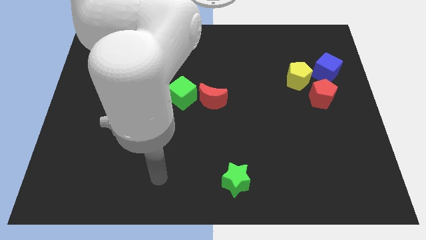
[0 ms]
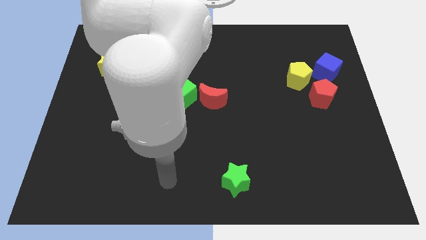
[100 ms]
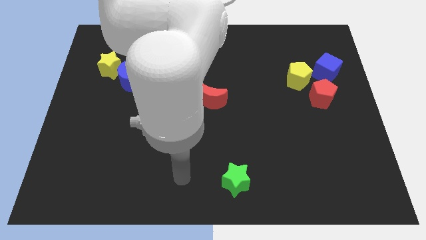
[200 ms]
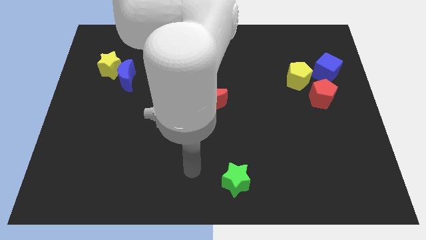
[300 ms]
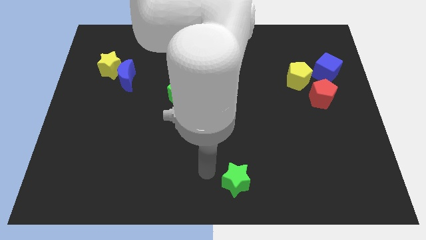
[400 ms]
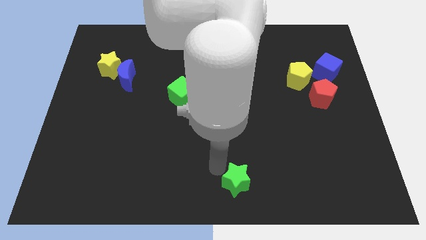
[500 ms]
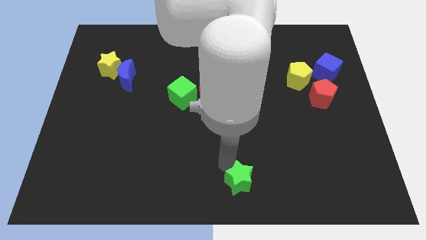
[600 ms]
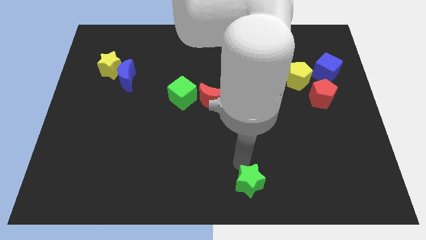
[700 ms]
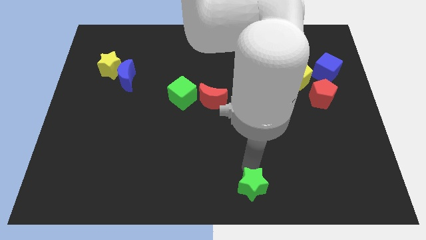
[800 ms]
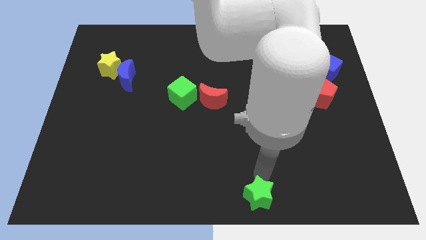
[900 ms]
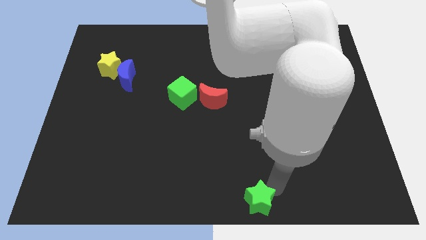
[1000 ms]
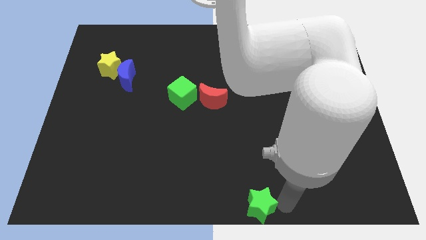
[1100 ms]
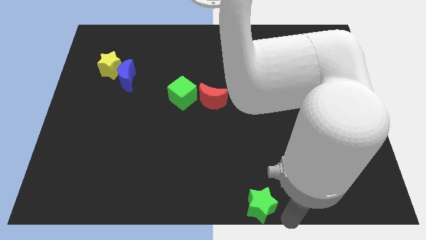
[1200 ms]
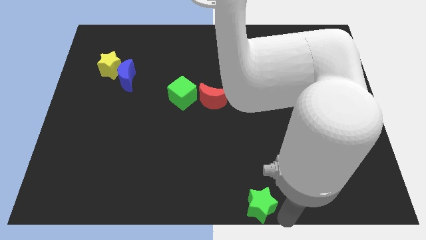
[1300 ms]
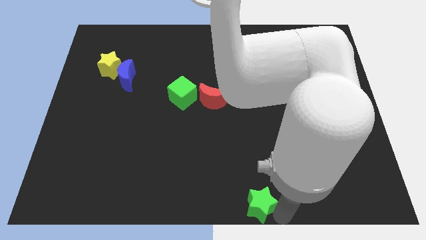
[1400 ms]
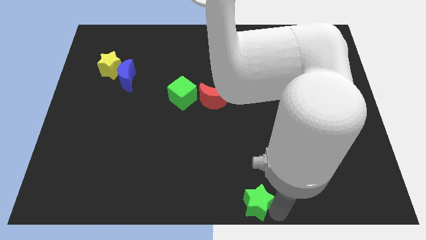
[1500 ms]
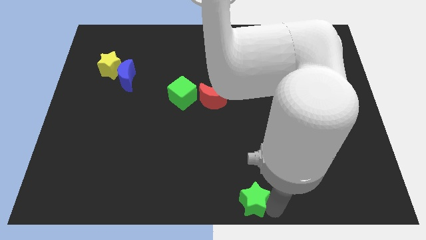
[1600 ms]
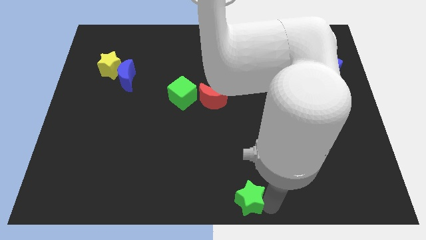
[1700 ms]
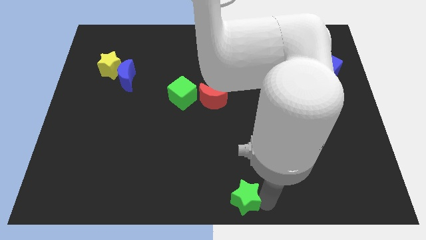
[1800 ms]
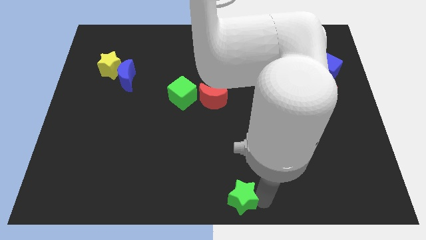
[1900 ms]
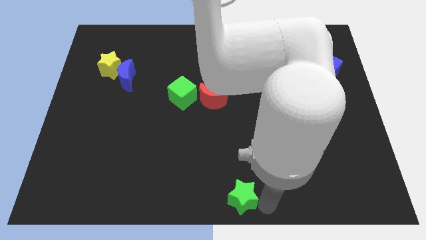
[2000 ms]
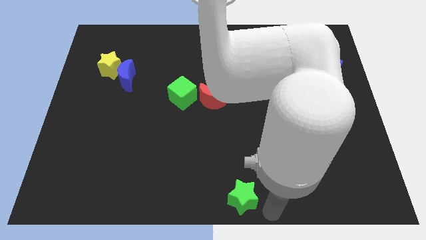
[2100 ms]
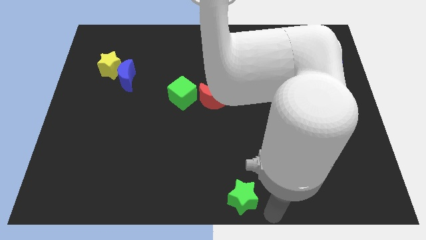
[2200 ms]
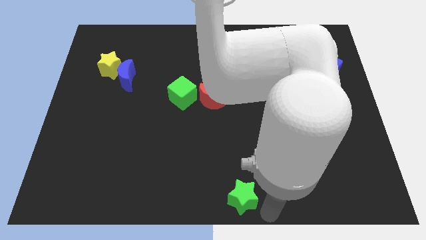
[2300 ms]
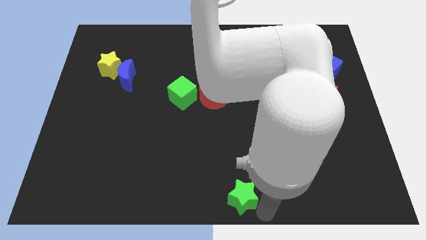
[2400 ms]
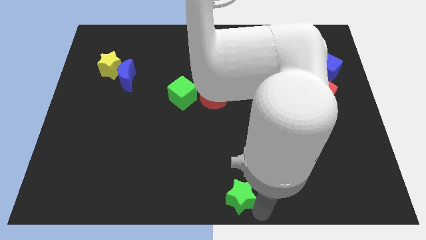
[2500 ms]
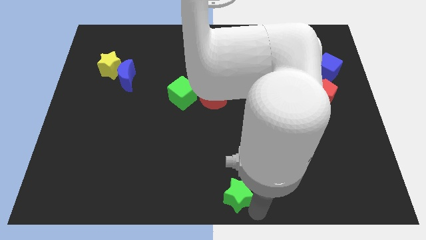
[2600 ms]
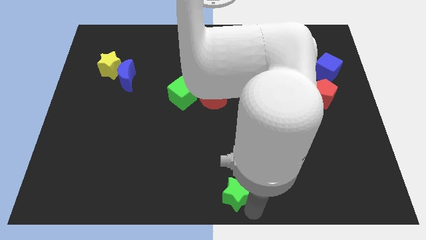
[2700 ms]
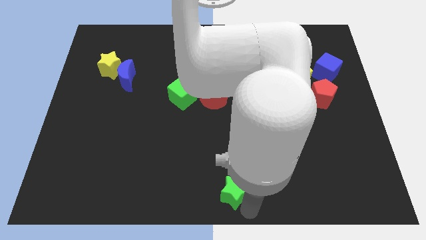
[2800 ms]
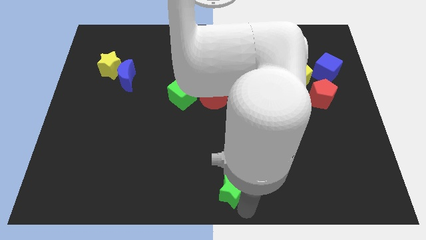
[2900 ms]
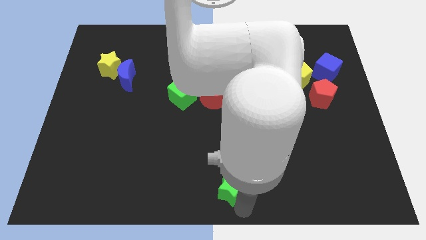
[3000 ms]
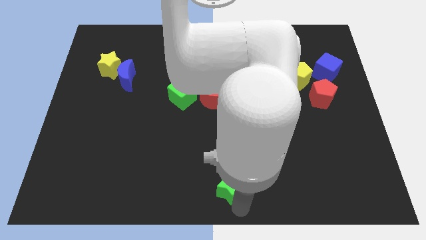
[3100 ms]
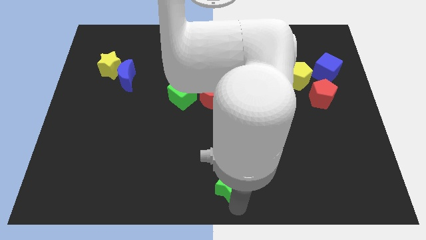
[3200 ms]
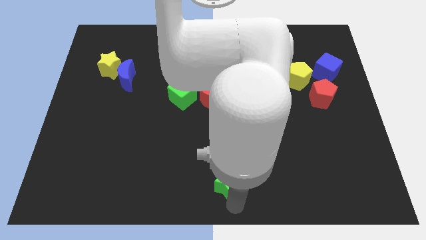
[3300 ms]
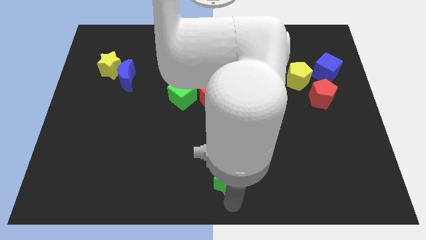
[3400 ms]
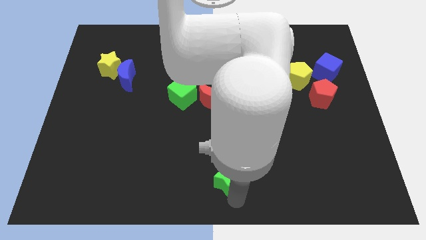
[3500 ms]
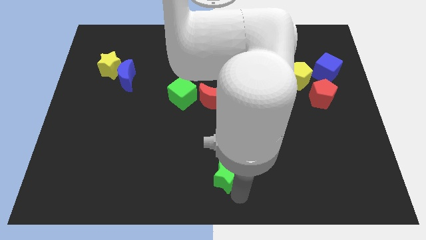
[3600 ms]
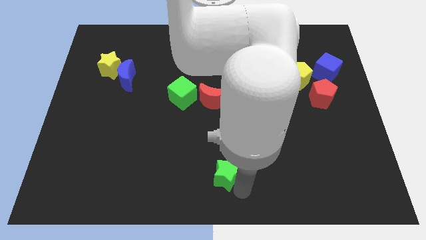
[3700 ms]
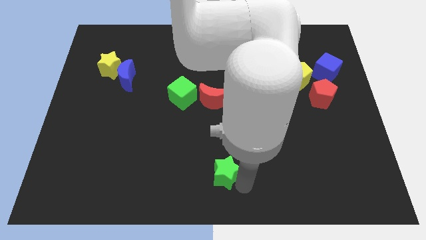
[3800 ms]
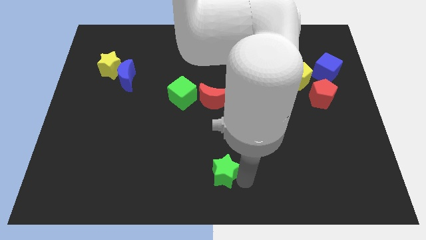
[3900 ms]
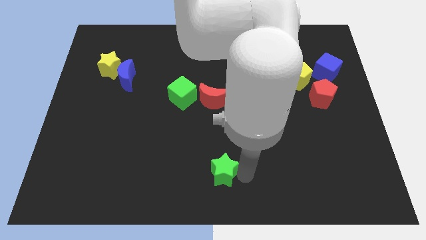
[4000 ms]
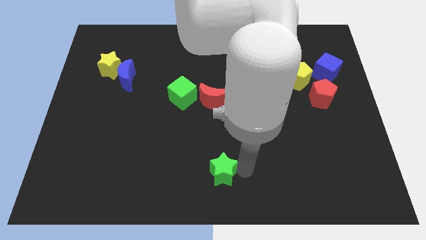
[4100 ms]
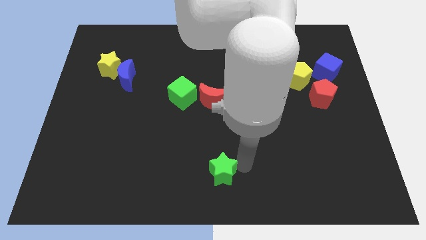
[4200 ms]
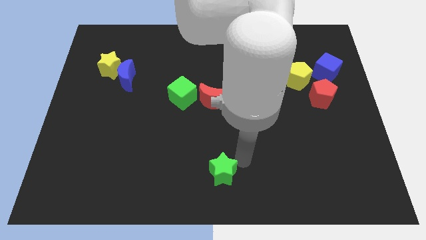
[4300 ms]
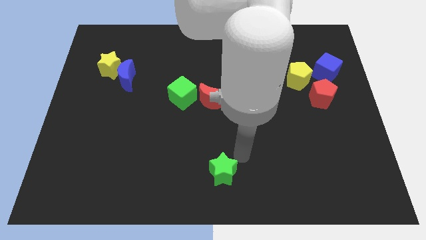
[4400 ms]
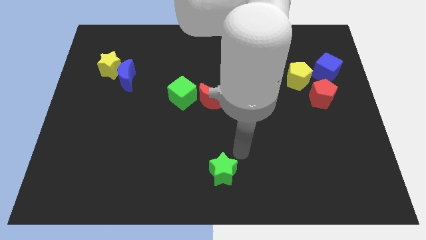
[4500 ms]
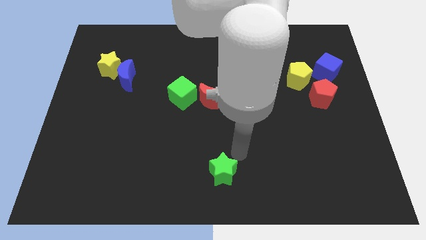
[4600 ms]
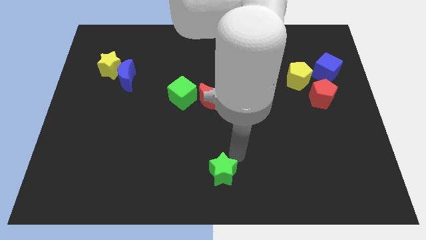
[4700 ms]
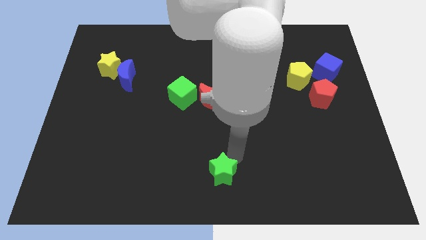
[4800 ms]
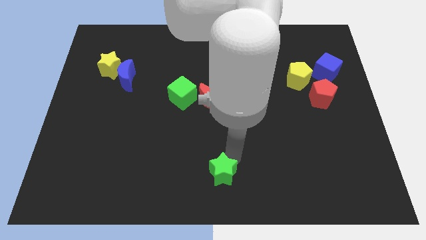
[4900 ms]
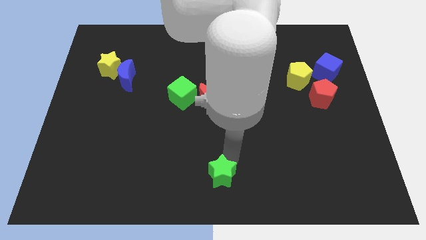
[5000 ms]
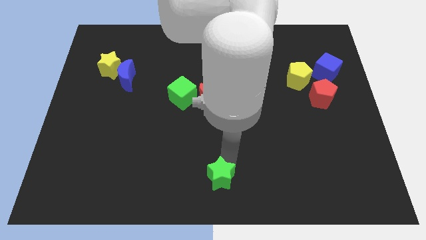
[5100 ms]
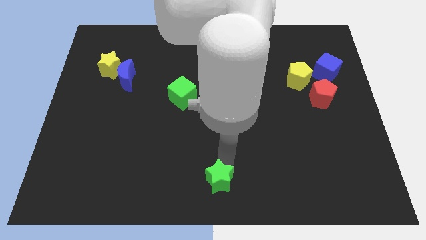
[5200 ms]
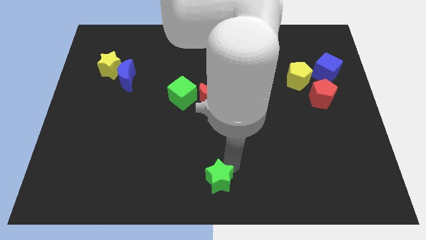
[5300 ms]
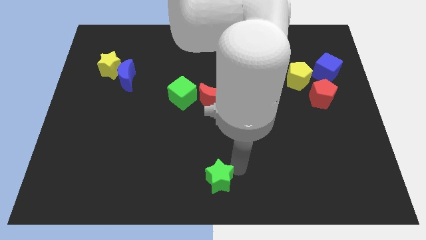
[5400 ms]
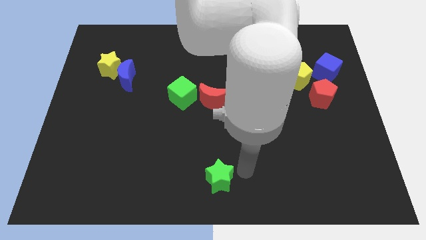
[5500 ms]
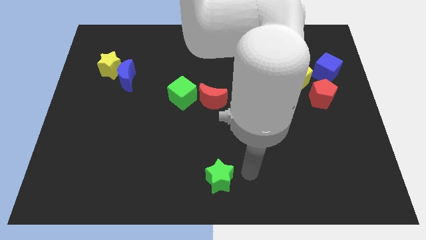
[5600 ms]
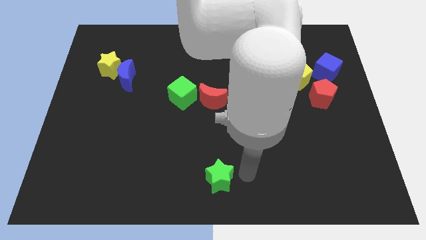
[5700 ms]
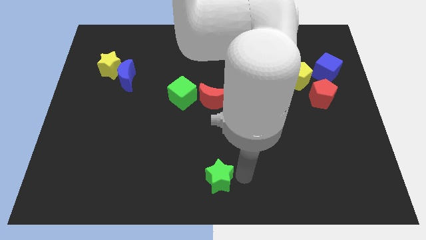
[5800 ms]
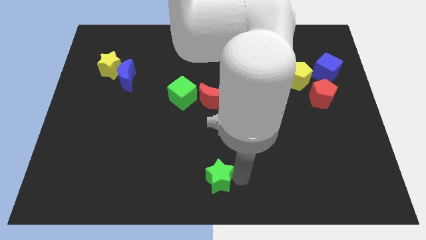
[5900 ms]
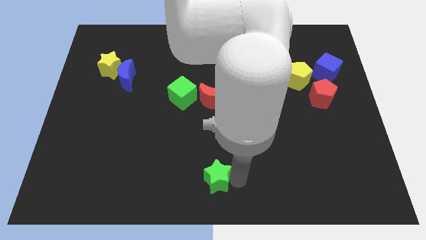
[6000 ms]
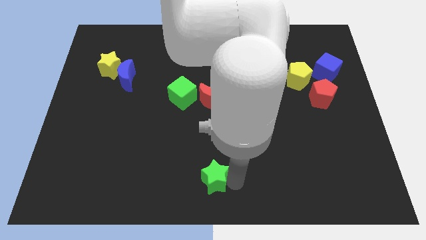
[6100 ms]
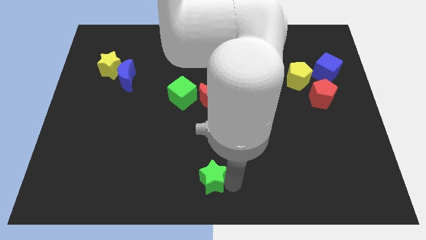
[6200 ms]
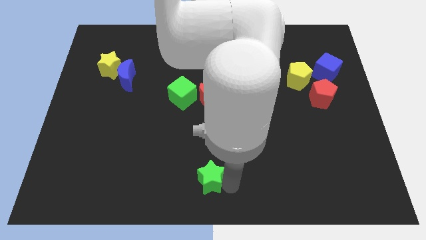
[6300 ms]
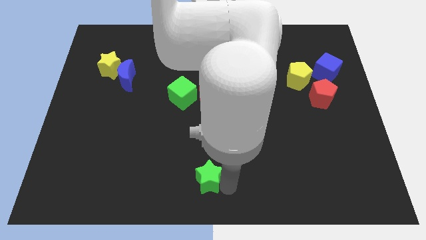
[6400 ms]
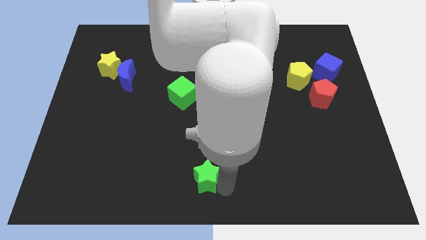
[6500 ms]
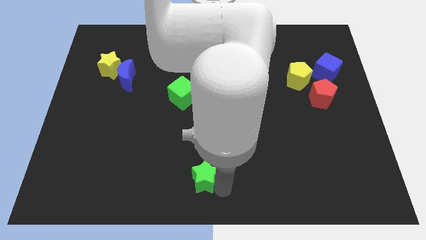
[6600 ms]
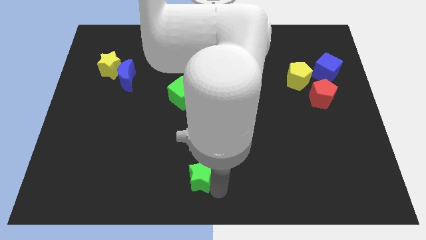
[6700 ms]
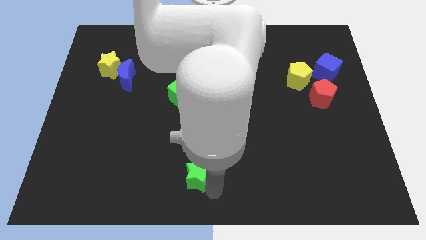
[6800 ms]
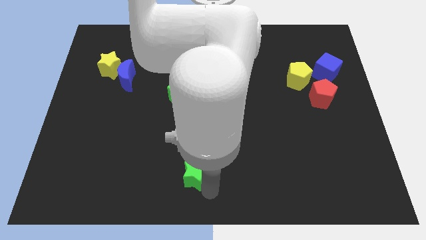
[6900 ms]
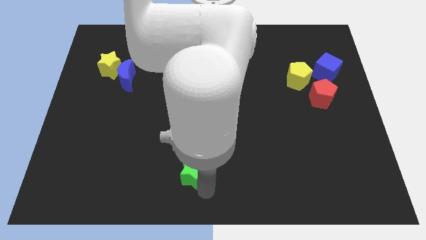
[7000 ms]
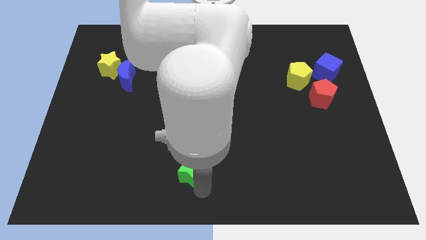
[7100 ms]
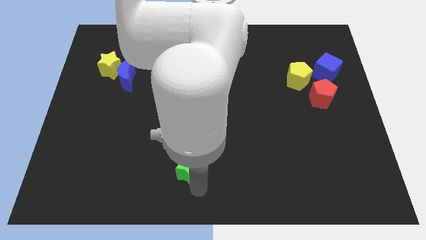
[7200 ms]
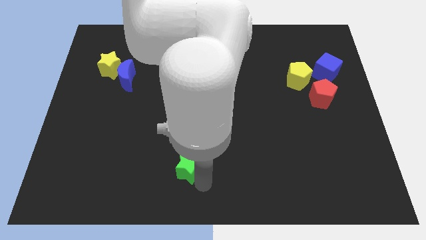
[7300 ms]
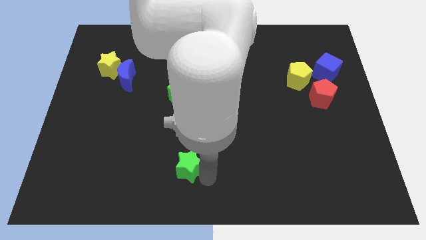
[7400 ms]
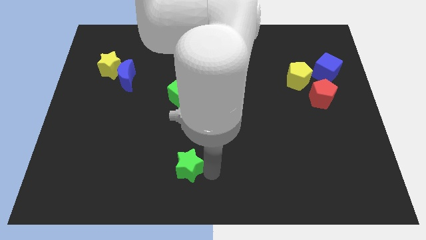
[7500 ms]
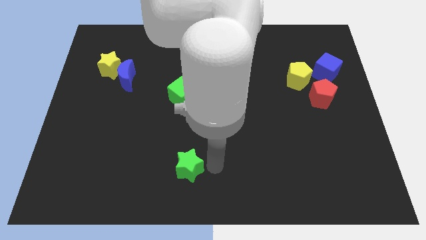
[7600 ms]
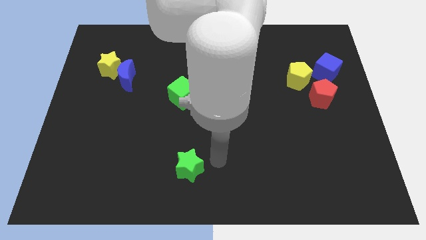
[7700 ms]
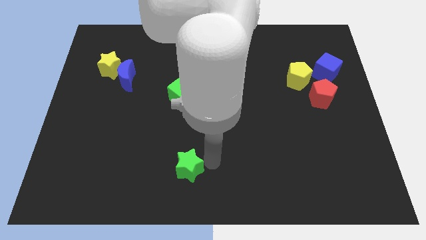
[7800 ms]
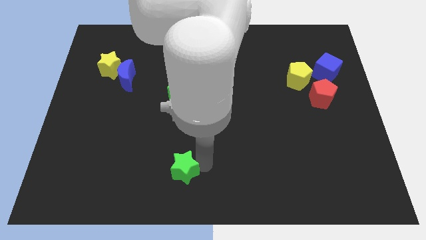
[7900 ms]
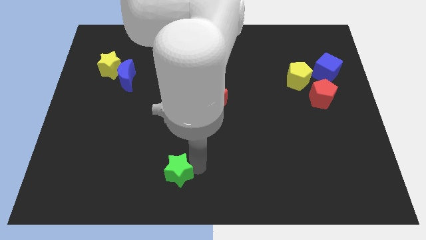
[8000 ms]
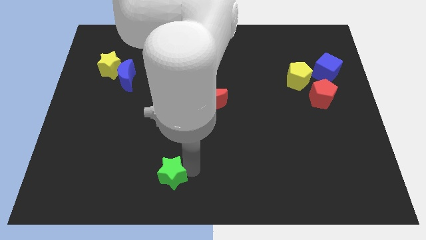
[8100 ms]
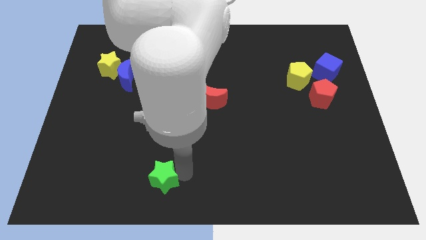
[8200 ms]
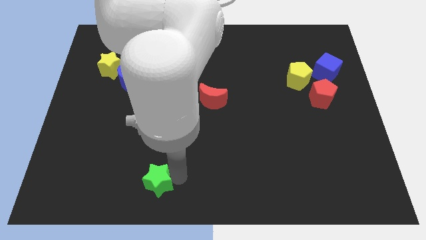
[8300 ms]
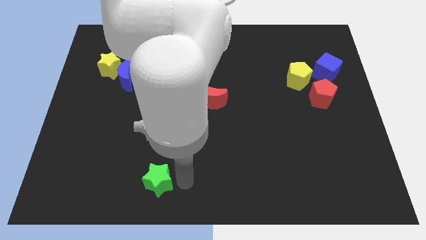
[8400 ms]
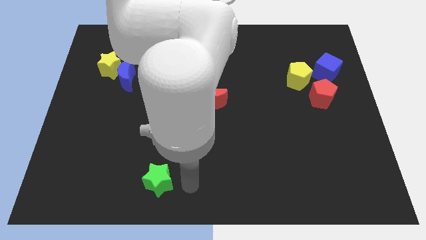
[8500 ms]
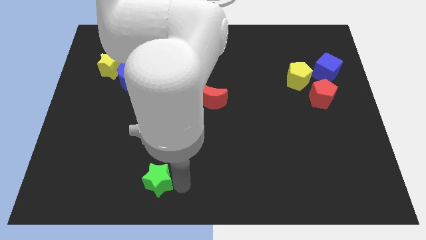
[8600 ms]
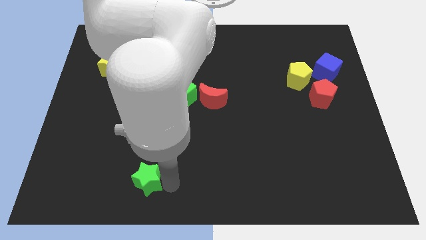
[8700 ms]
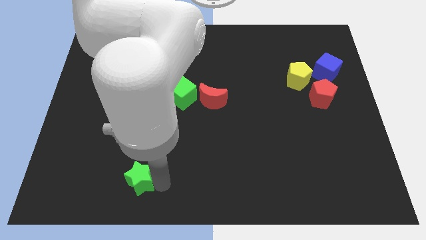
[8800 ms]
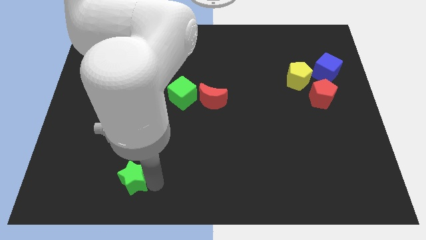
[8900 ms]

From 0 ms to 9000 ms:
slide the green star to the left
